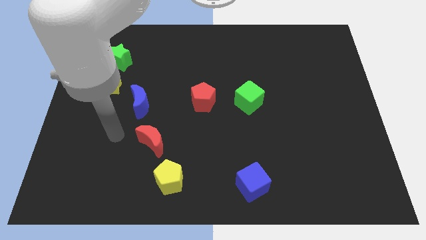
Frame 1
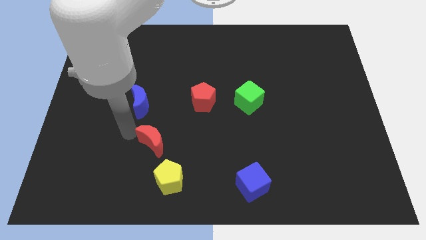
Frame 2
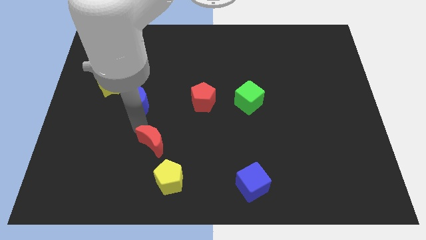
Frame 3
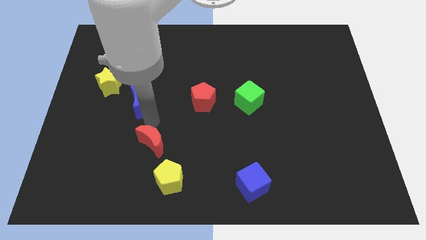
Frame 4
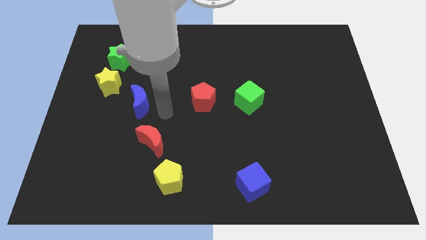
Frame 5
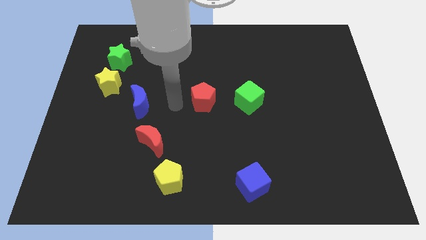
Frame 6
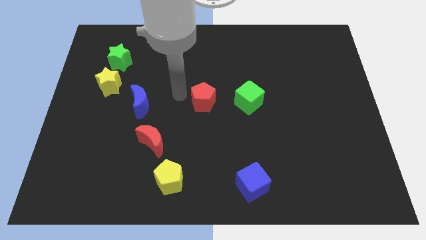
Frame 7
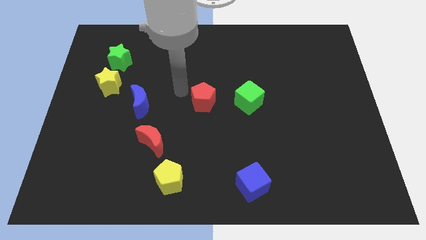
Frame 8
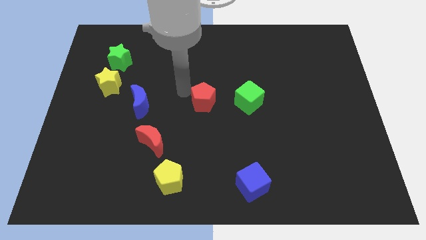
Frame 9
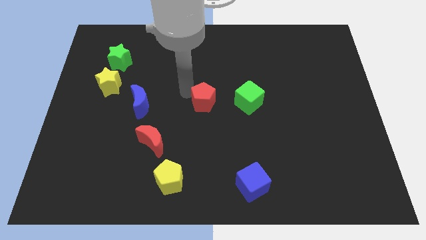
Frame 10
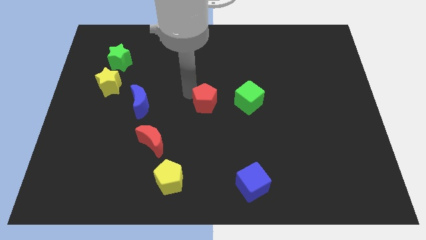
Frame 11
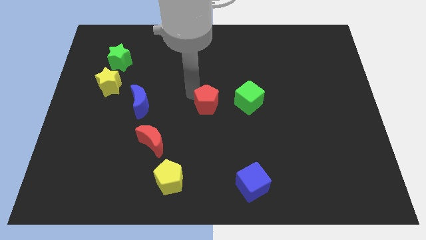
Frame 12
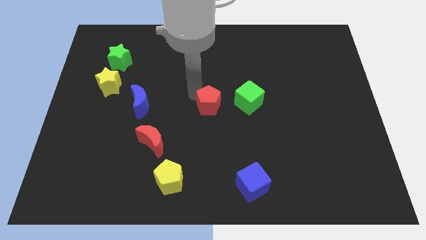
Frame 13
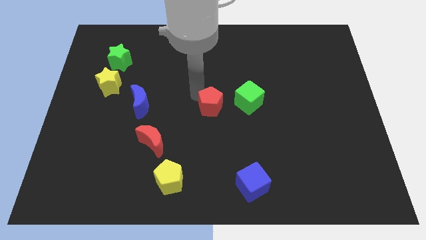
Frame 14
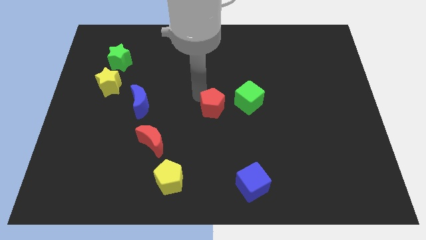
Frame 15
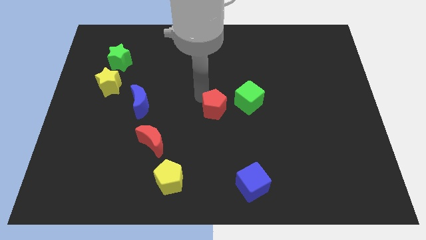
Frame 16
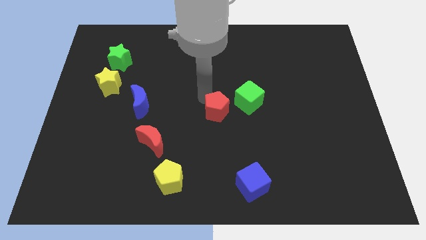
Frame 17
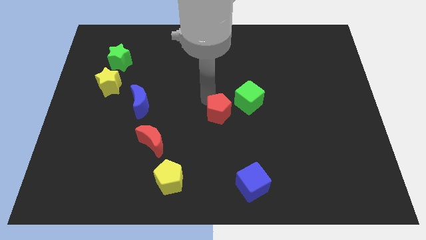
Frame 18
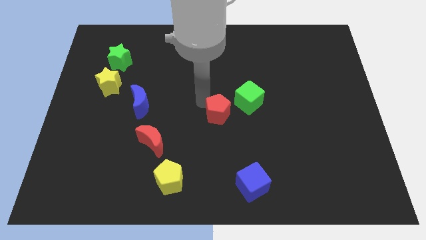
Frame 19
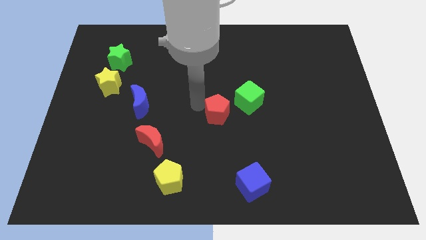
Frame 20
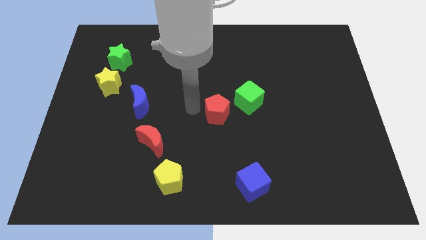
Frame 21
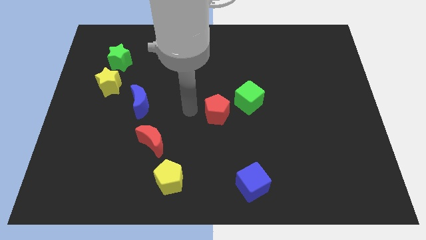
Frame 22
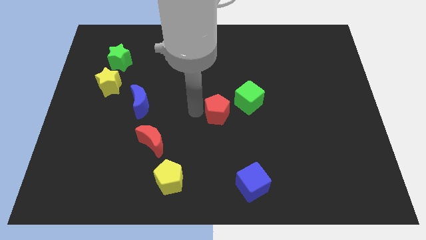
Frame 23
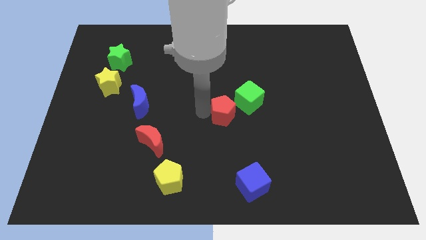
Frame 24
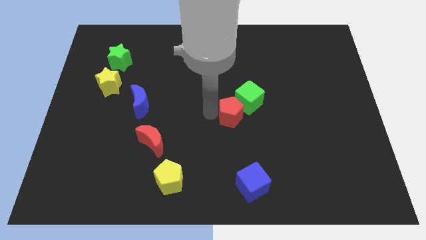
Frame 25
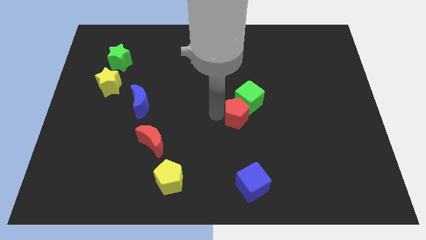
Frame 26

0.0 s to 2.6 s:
push the red pentagon to the right a little bit

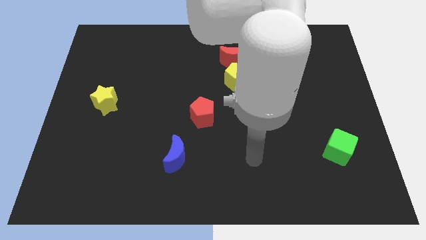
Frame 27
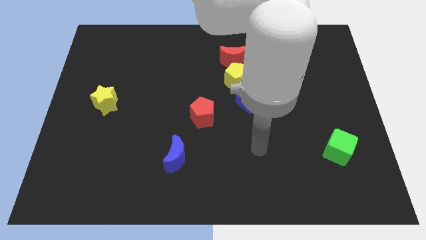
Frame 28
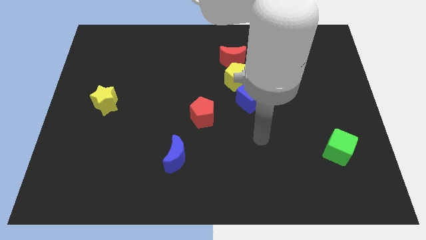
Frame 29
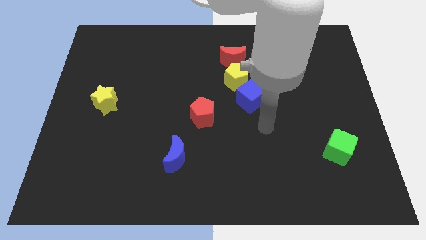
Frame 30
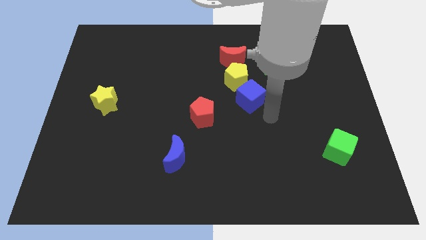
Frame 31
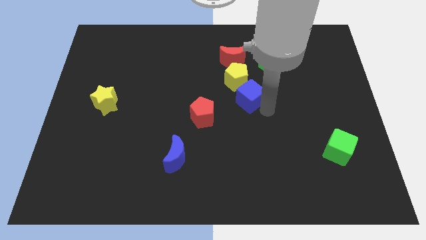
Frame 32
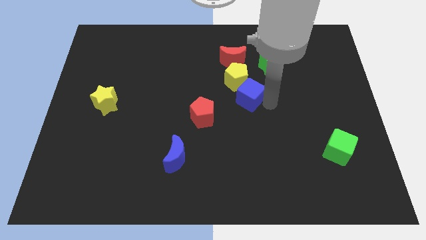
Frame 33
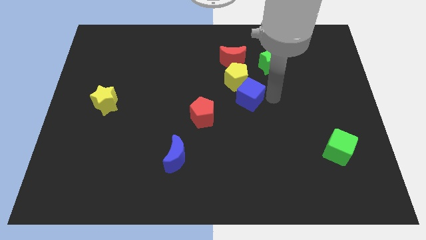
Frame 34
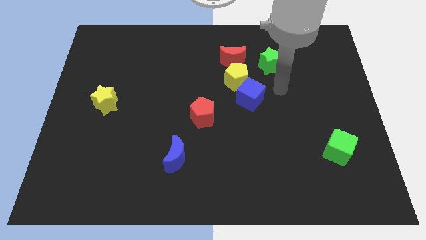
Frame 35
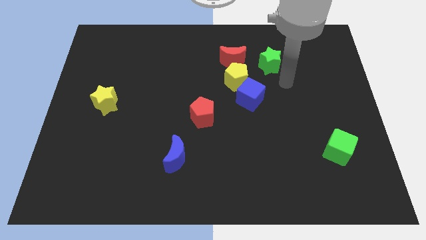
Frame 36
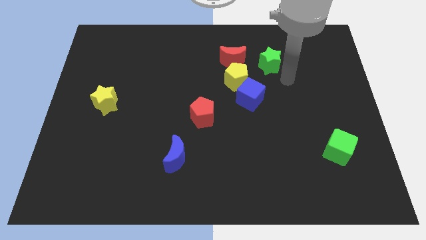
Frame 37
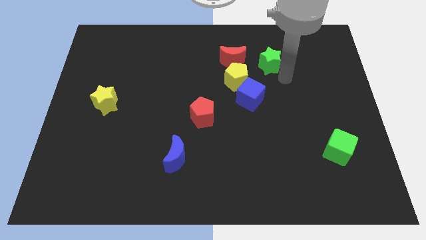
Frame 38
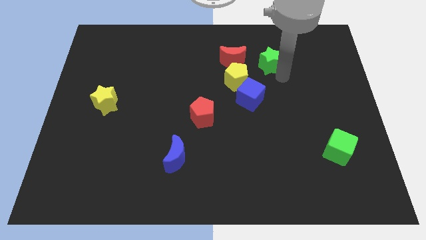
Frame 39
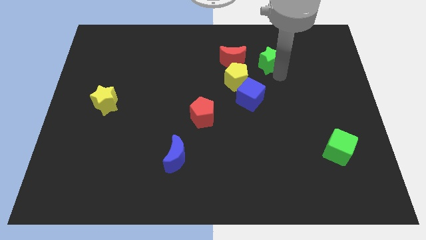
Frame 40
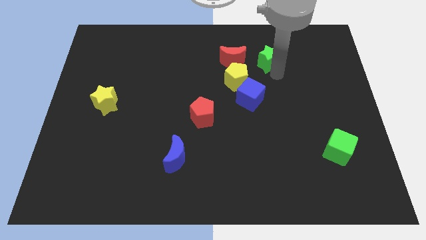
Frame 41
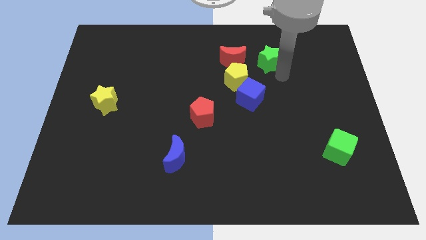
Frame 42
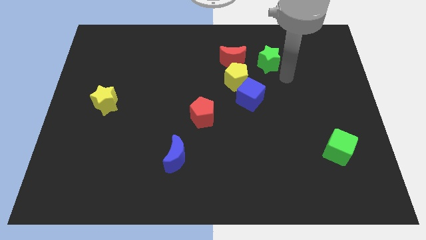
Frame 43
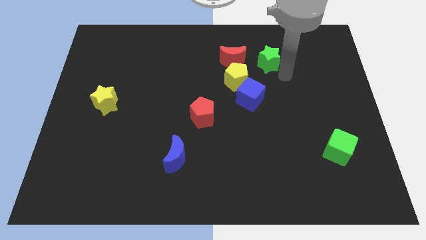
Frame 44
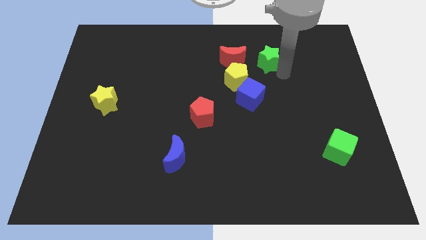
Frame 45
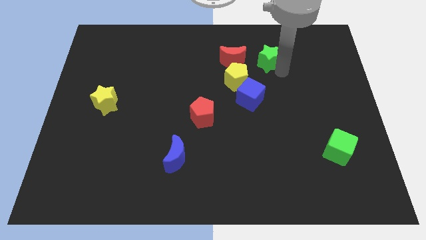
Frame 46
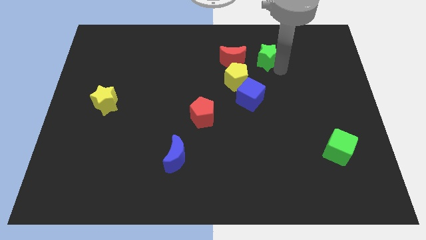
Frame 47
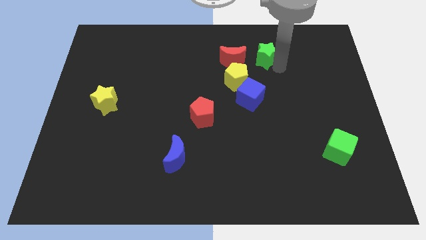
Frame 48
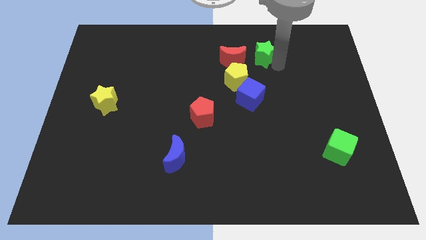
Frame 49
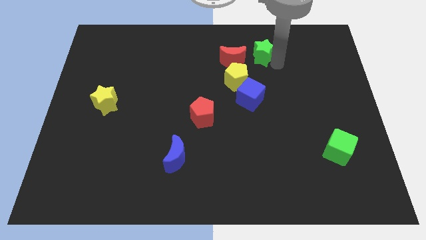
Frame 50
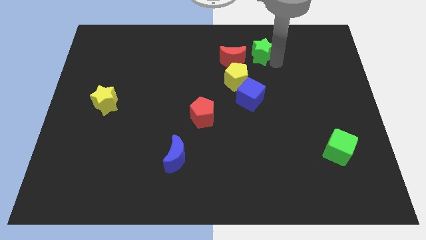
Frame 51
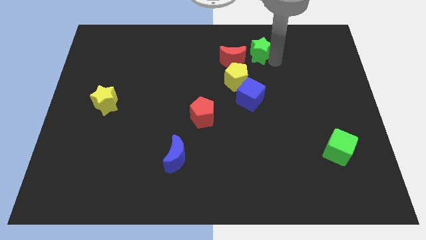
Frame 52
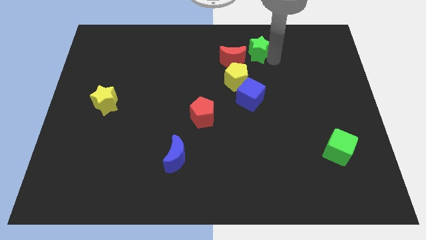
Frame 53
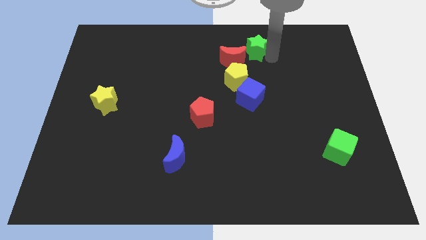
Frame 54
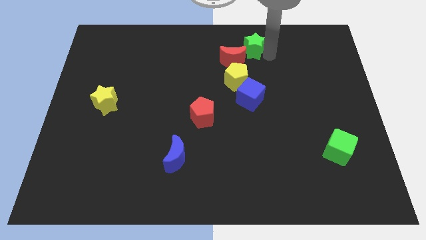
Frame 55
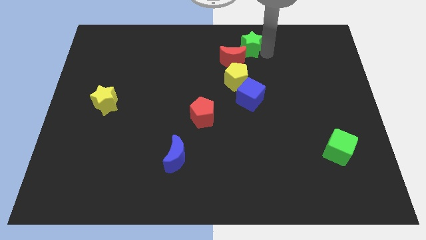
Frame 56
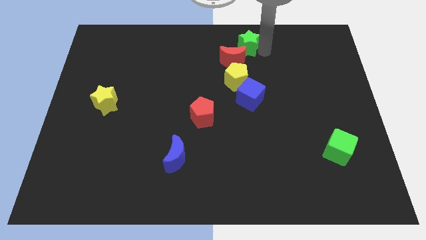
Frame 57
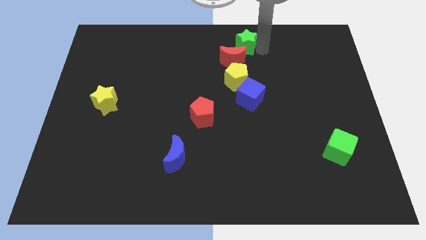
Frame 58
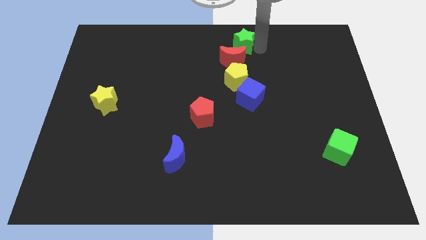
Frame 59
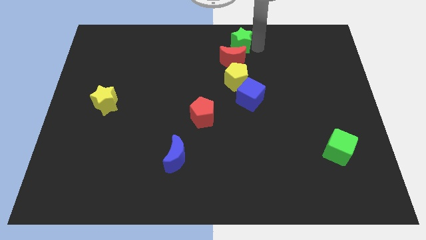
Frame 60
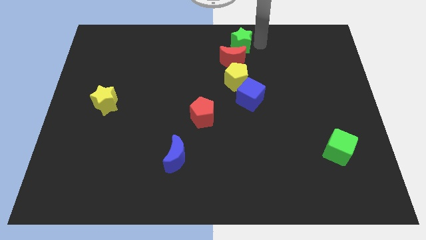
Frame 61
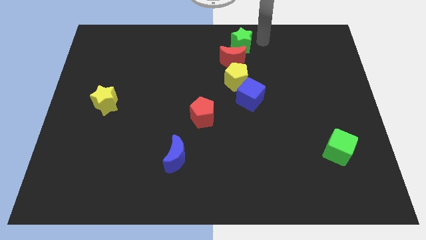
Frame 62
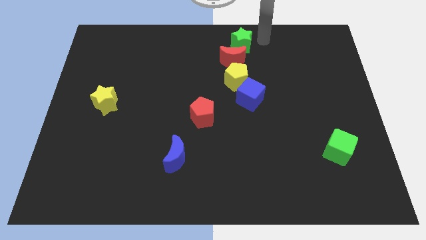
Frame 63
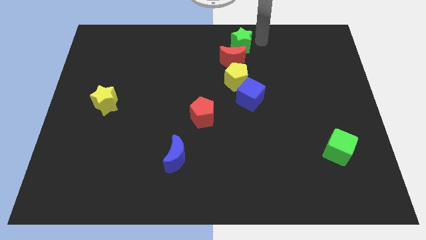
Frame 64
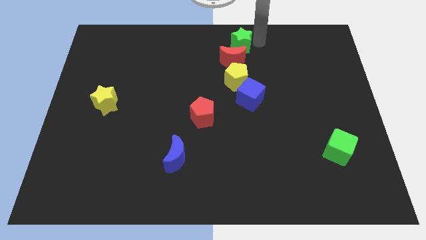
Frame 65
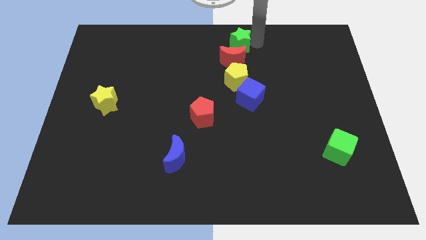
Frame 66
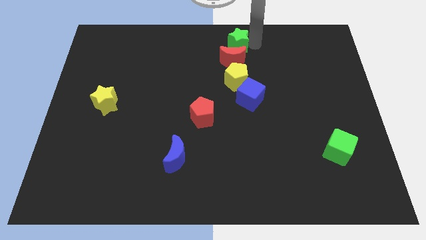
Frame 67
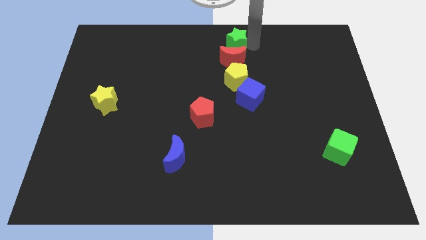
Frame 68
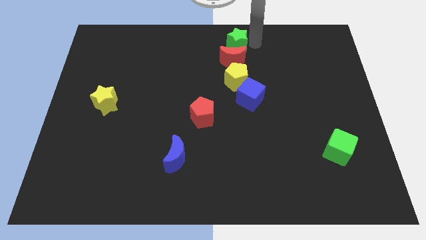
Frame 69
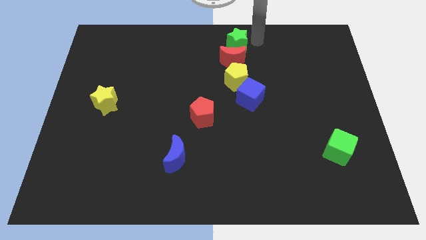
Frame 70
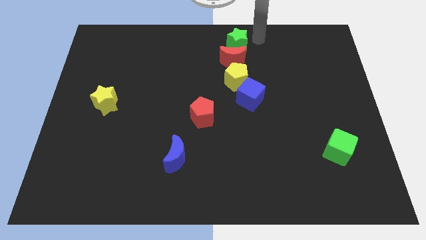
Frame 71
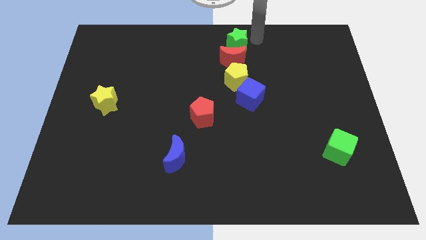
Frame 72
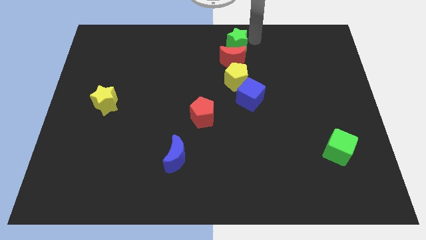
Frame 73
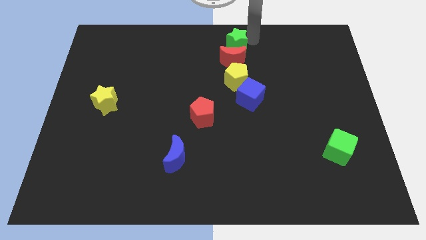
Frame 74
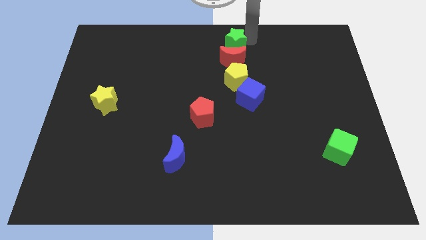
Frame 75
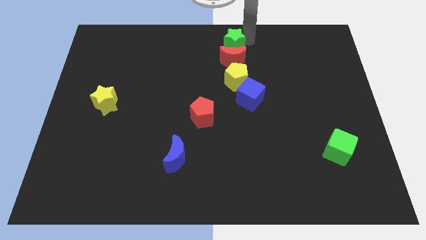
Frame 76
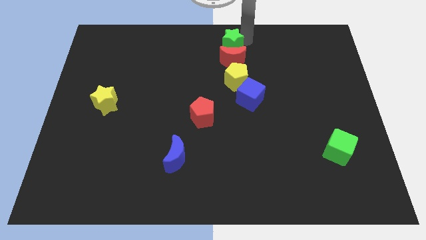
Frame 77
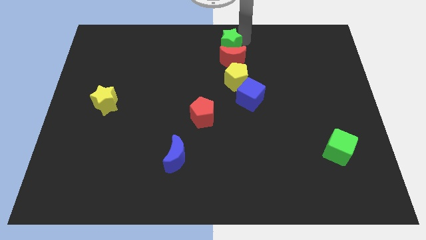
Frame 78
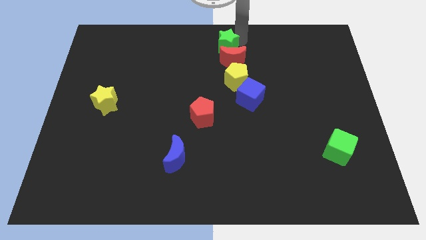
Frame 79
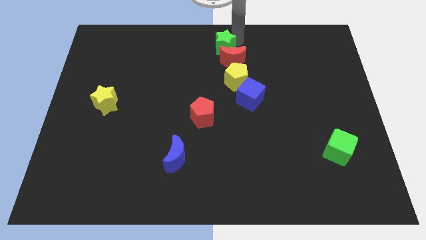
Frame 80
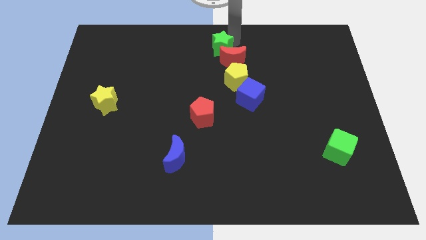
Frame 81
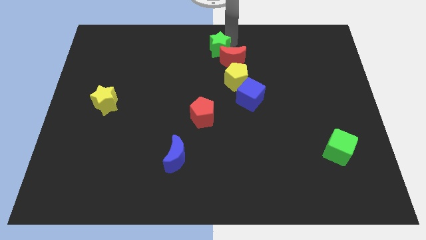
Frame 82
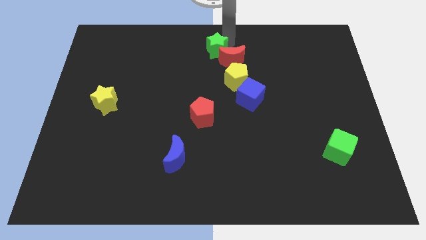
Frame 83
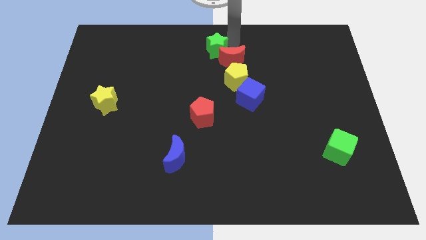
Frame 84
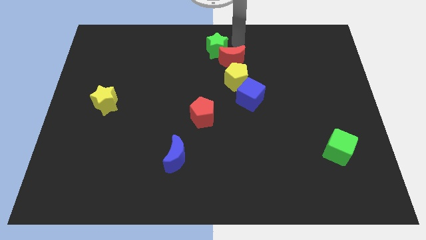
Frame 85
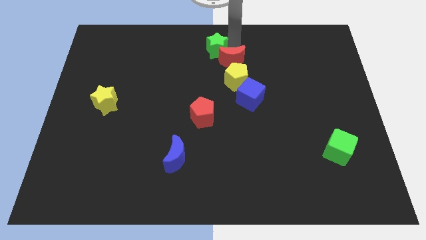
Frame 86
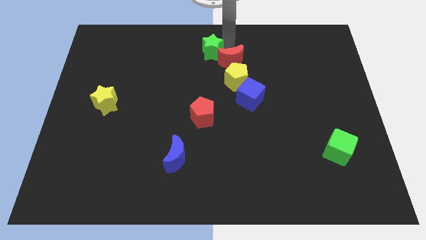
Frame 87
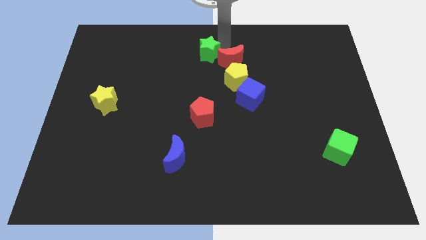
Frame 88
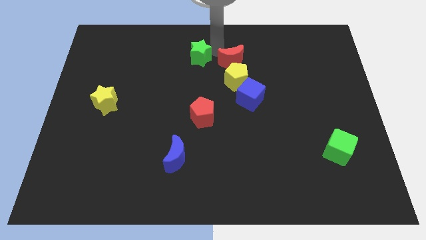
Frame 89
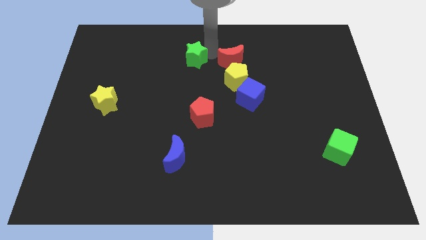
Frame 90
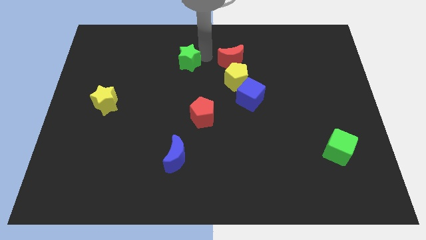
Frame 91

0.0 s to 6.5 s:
push the green star left
